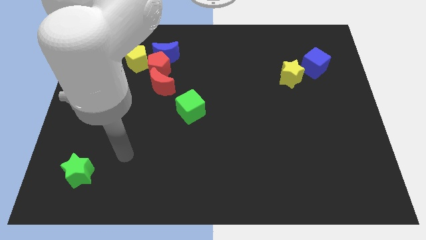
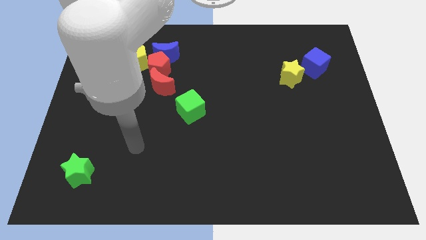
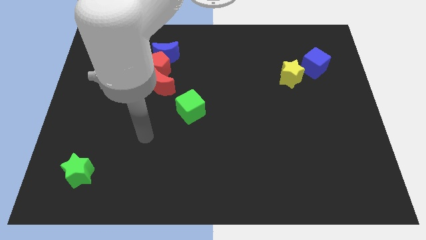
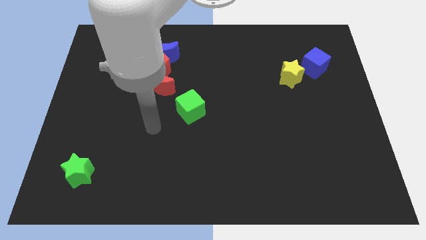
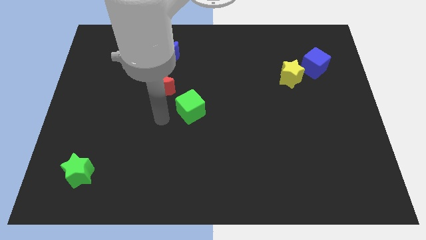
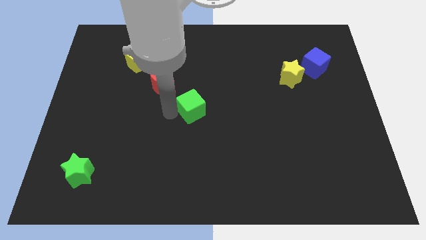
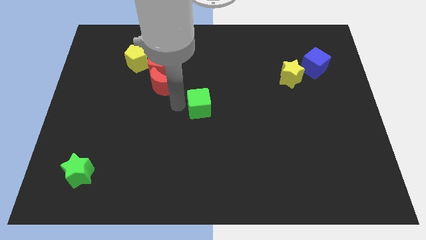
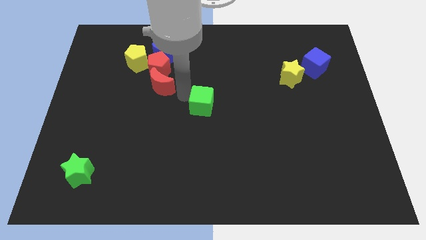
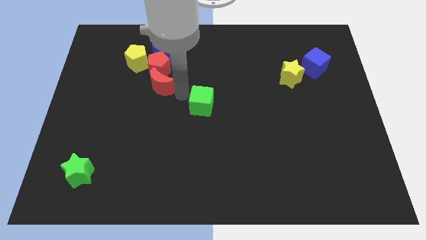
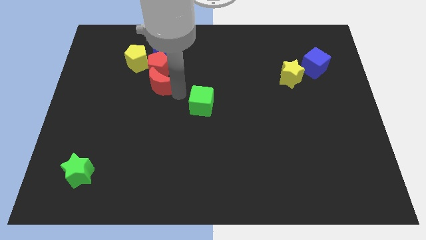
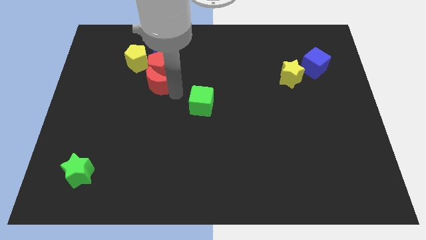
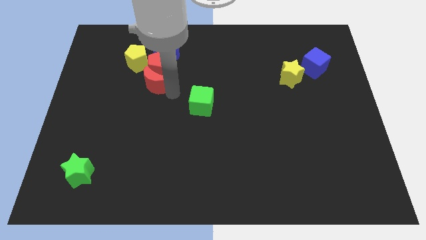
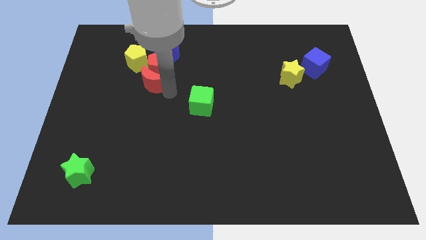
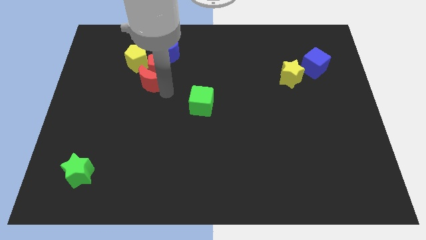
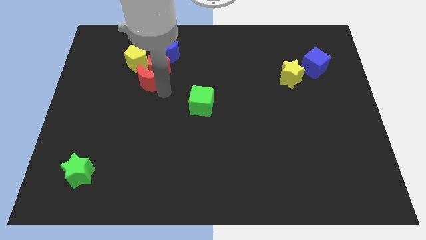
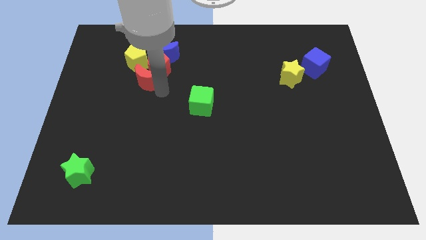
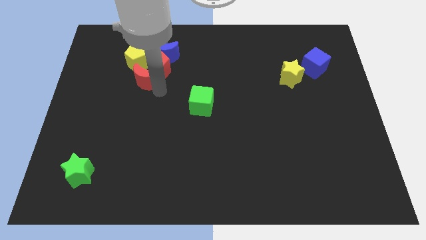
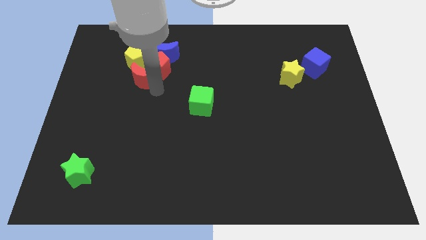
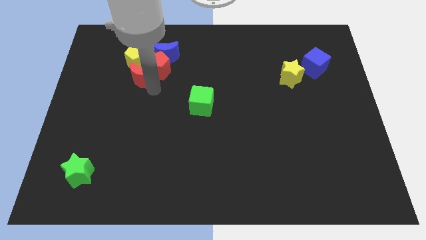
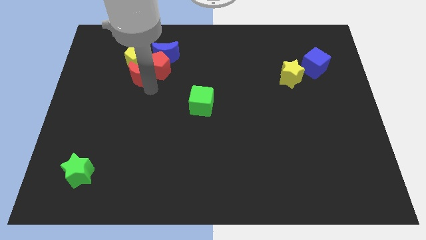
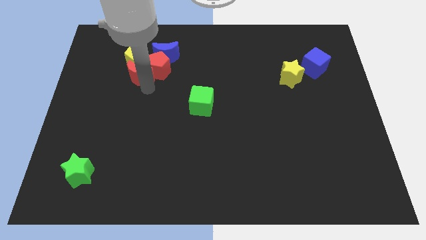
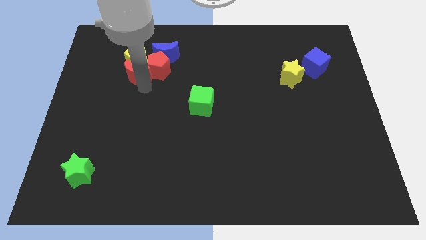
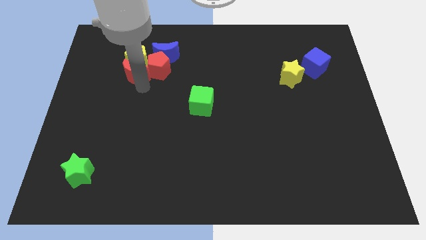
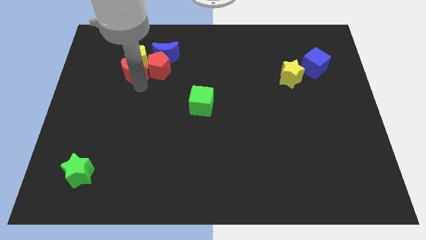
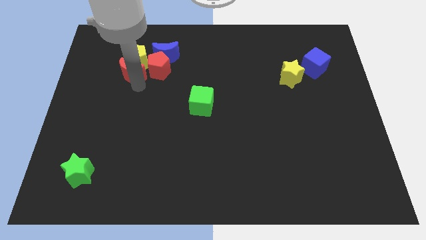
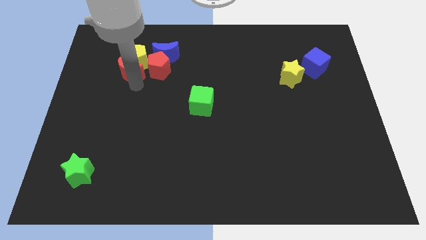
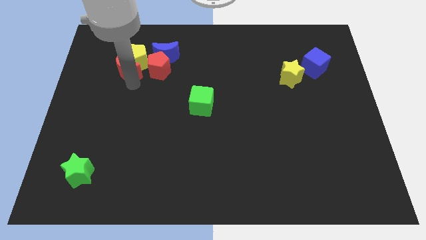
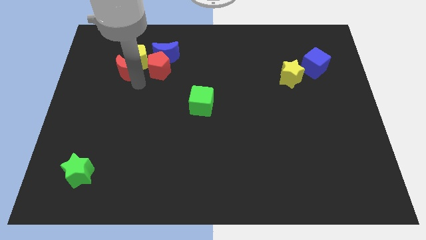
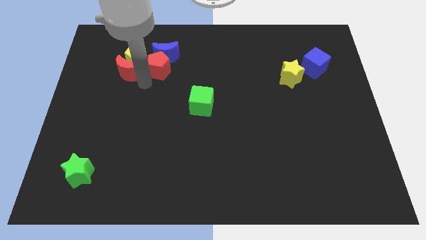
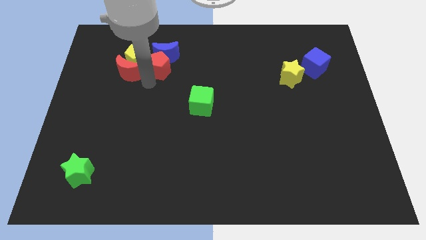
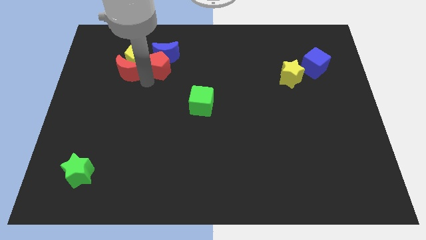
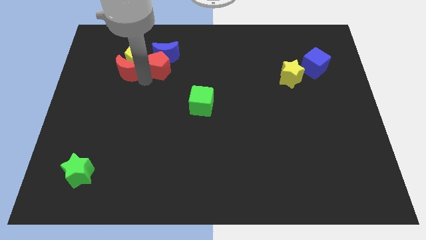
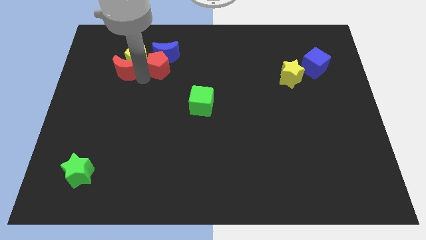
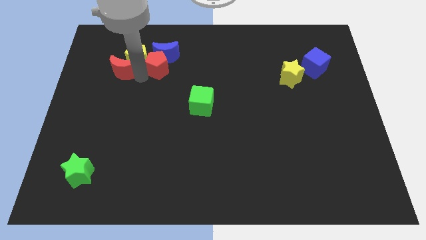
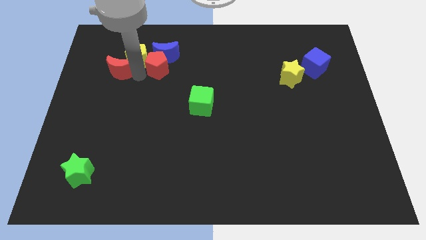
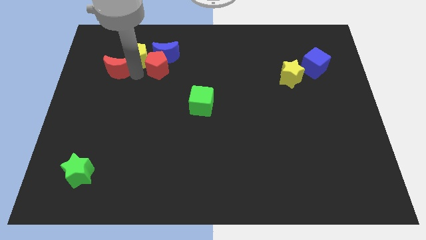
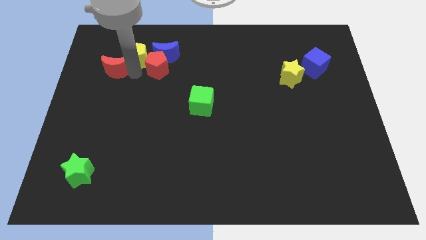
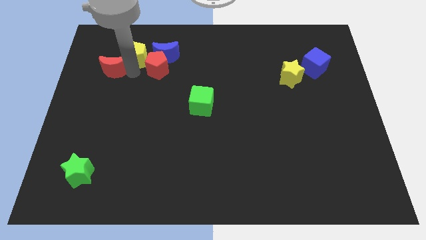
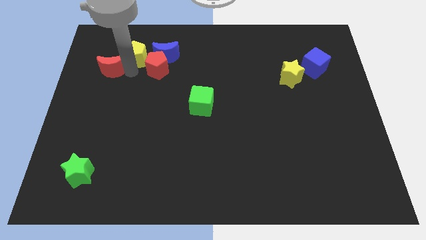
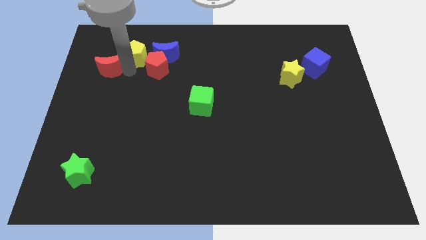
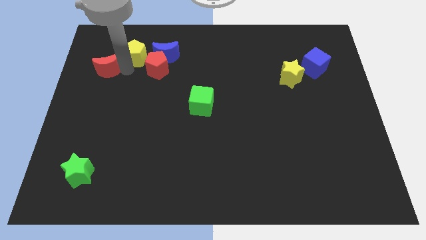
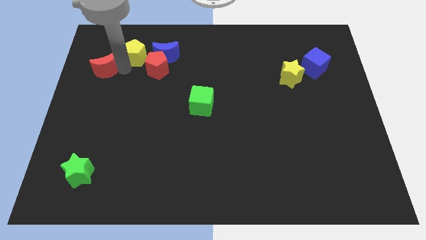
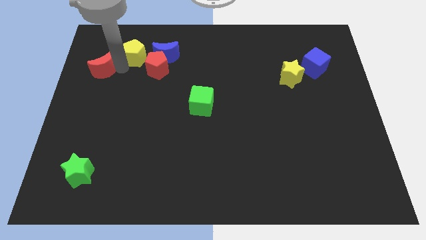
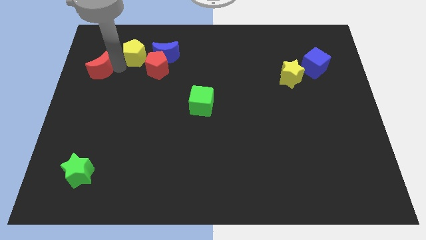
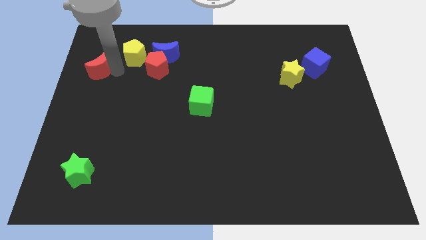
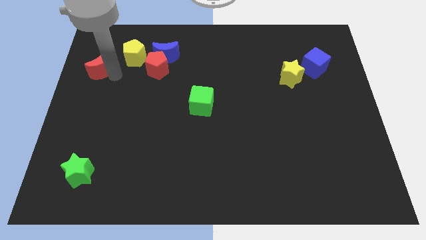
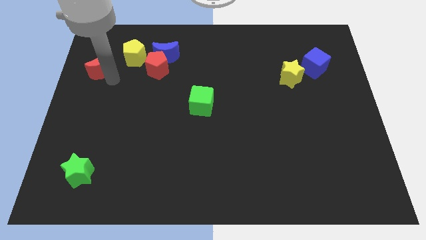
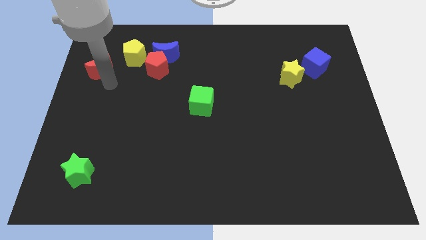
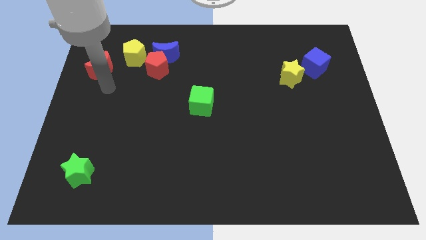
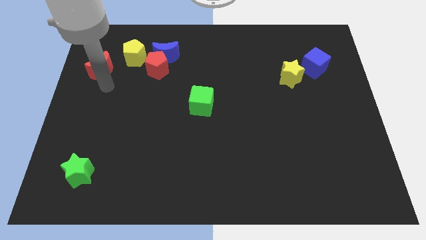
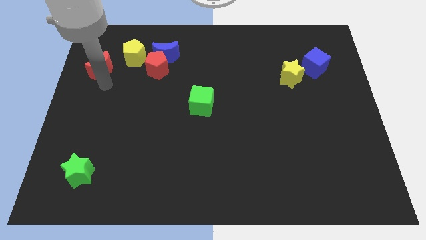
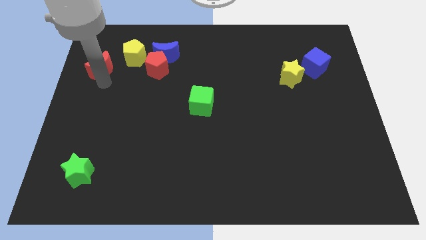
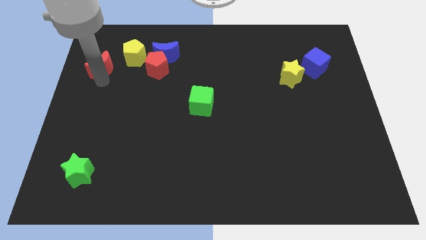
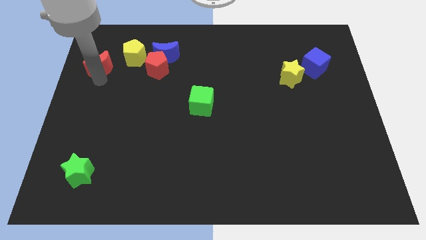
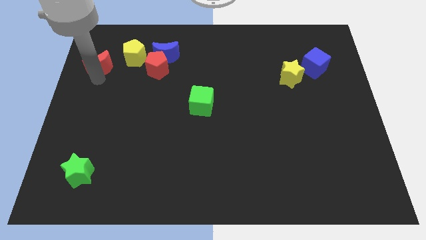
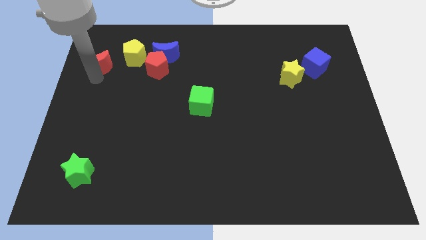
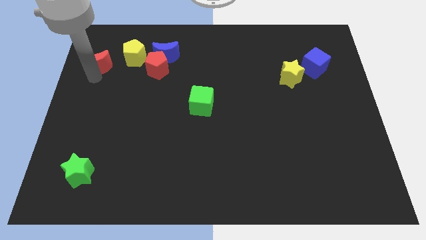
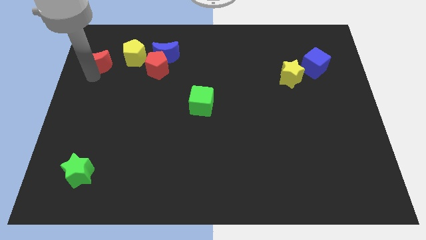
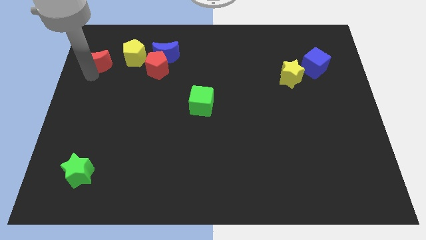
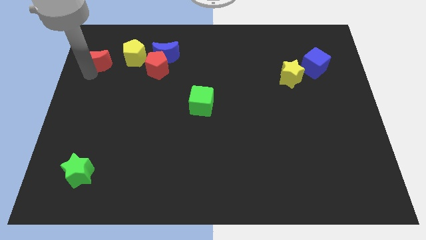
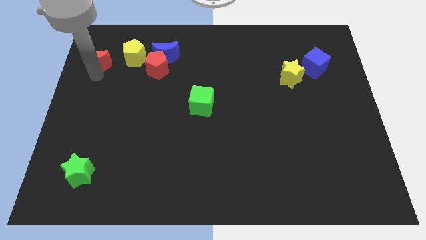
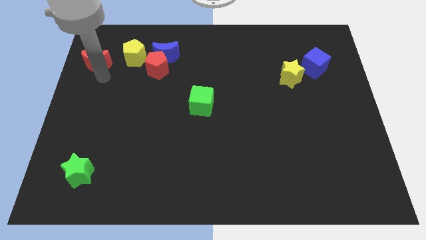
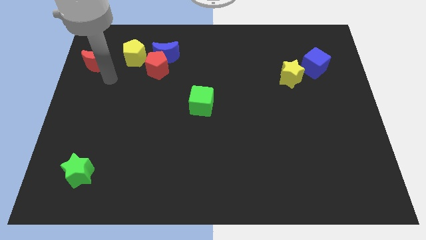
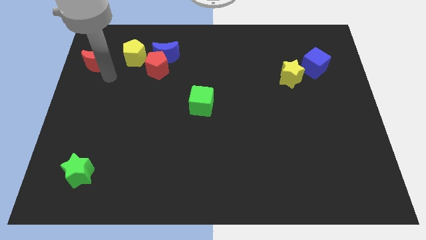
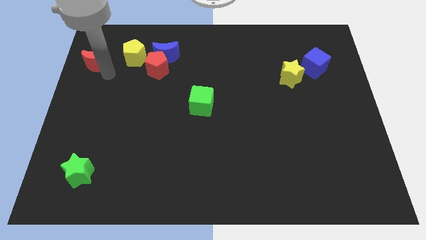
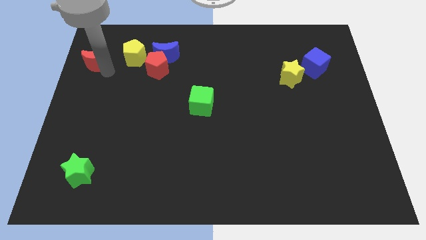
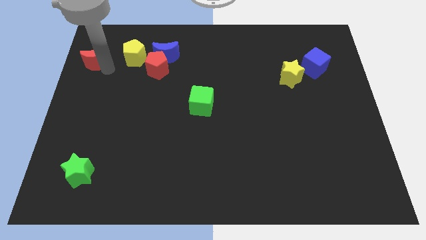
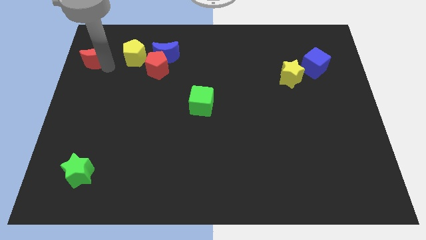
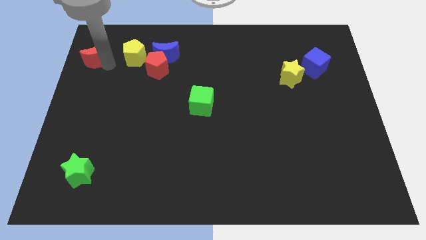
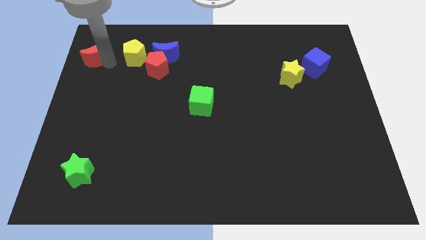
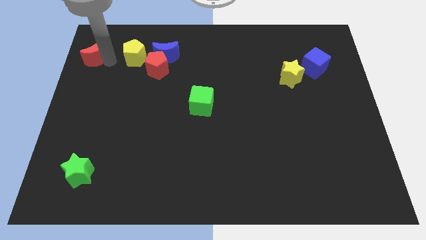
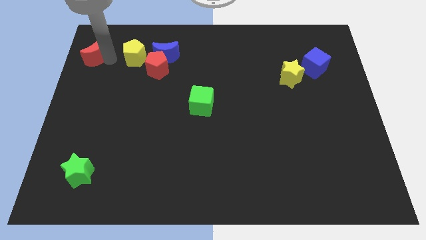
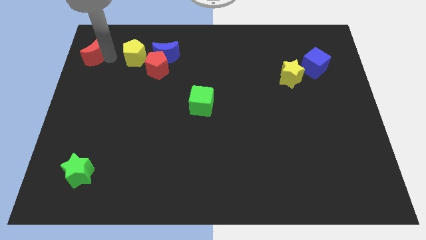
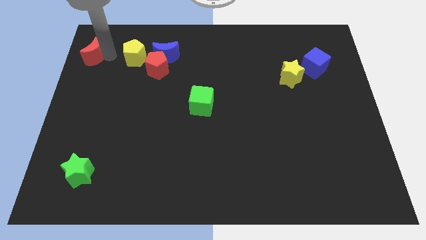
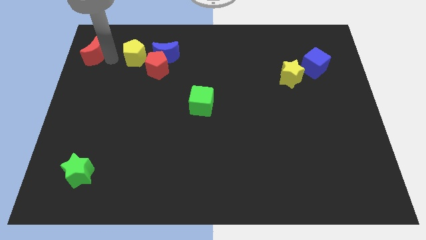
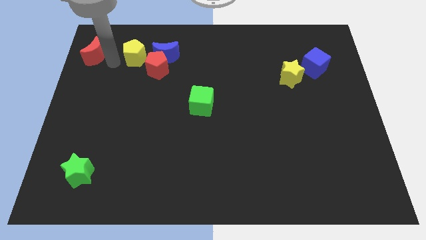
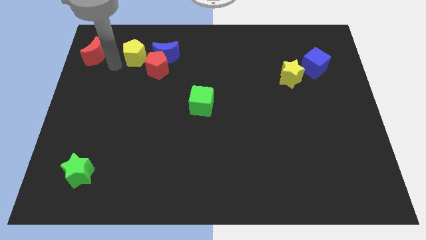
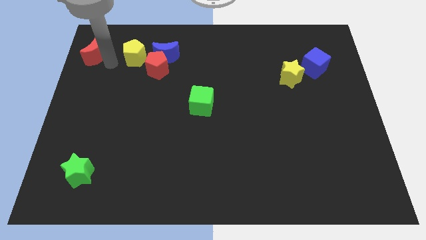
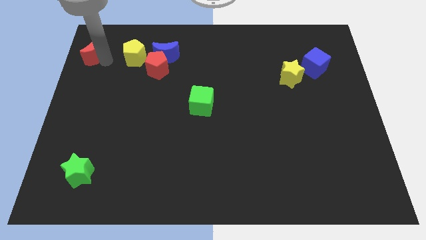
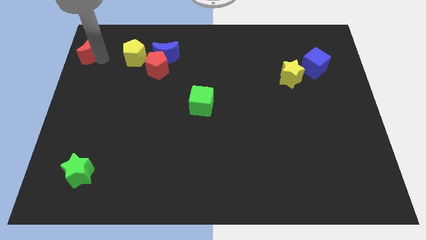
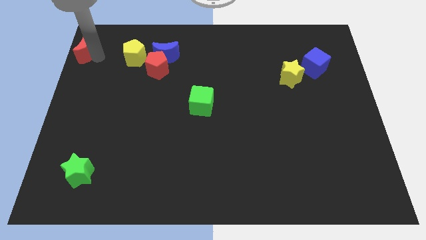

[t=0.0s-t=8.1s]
push the red moon to the top left
